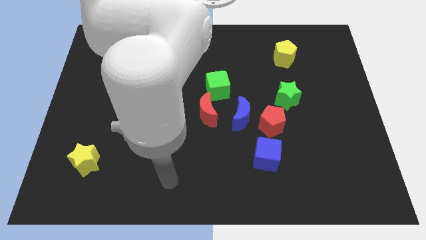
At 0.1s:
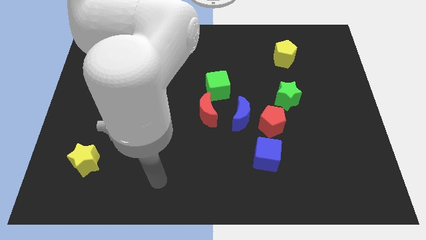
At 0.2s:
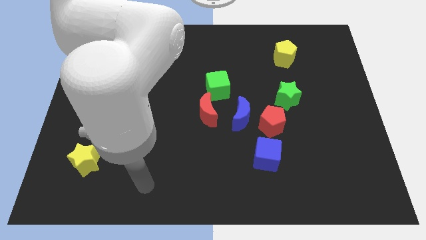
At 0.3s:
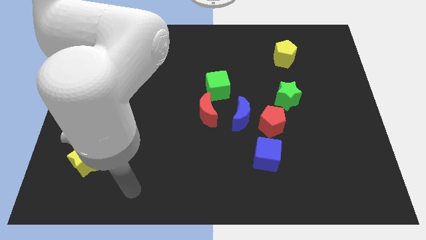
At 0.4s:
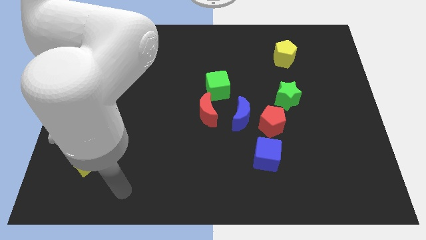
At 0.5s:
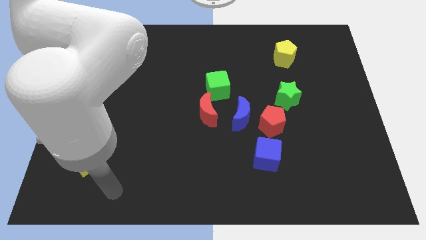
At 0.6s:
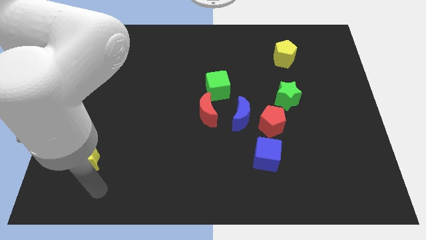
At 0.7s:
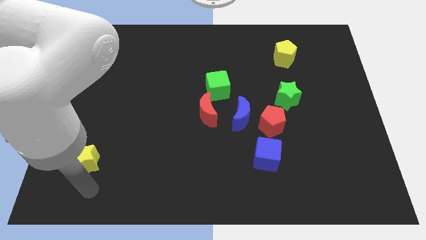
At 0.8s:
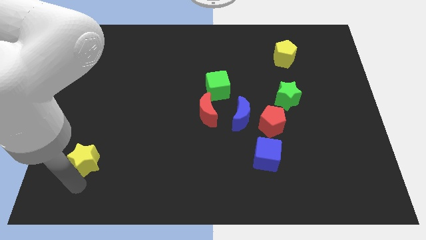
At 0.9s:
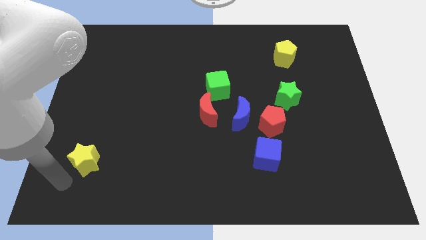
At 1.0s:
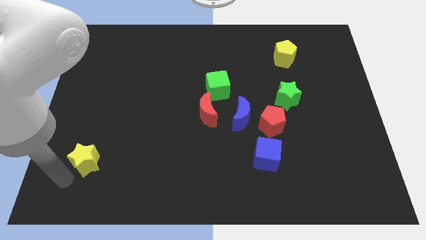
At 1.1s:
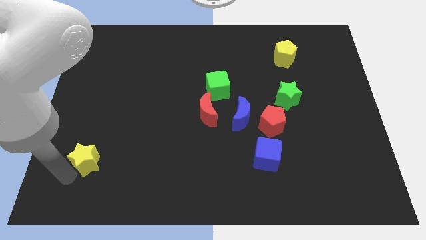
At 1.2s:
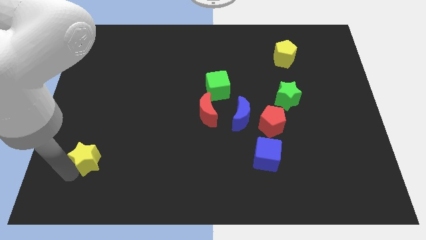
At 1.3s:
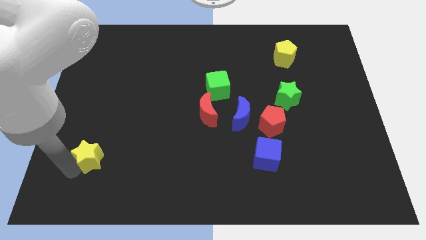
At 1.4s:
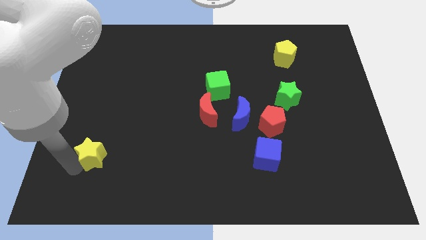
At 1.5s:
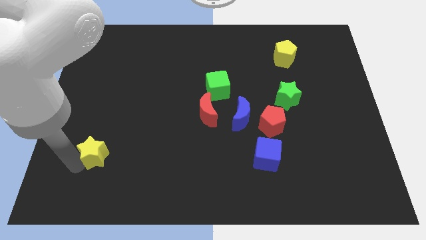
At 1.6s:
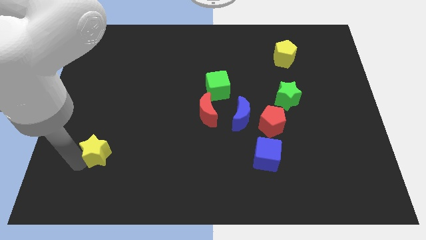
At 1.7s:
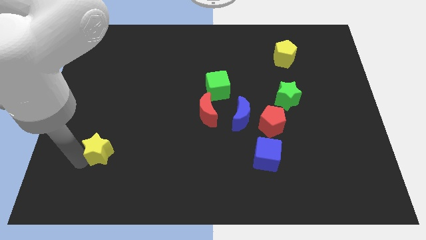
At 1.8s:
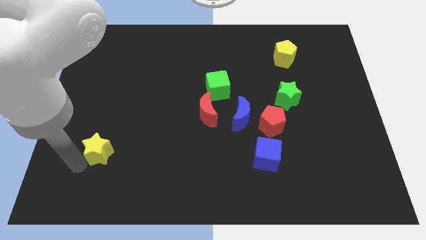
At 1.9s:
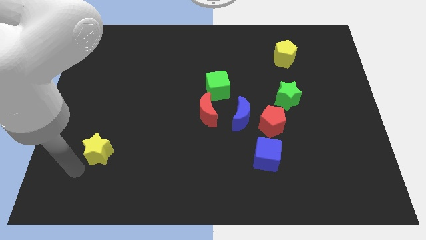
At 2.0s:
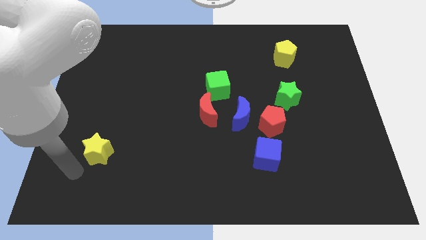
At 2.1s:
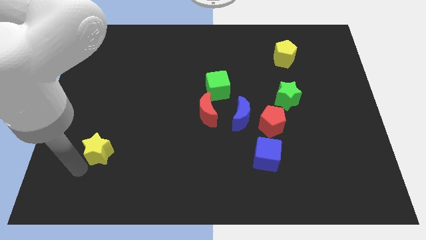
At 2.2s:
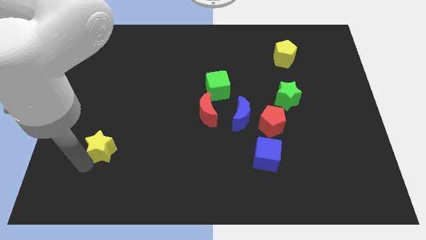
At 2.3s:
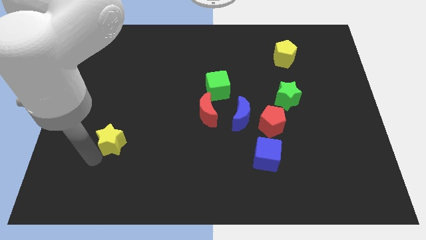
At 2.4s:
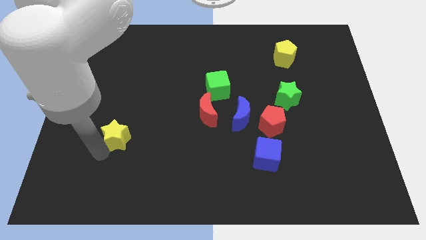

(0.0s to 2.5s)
push the yellow star somewhat diagonally upwards and right

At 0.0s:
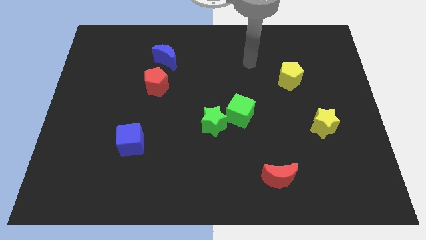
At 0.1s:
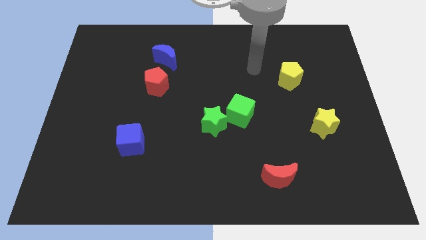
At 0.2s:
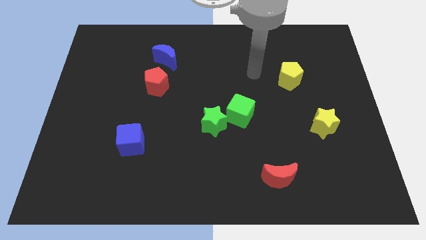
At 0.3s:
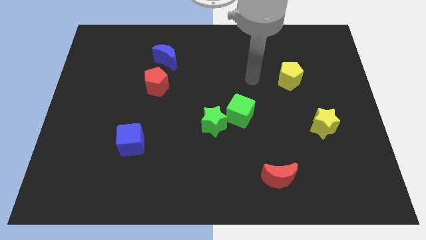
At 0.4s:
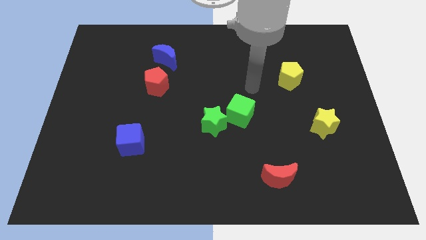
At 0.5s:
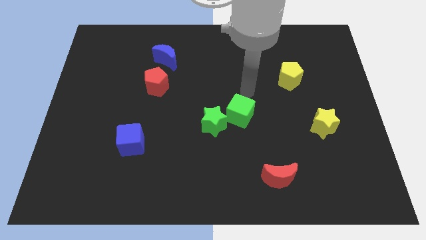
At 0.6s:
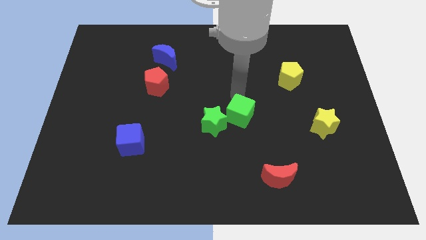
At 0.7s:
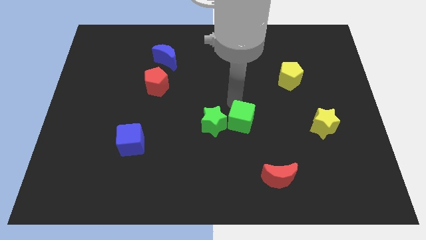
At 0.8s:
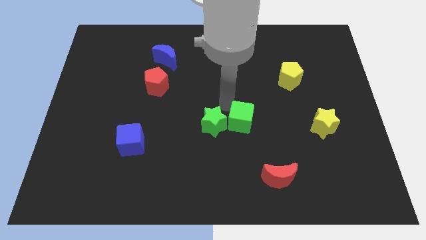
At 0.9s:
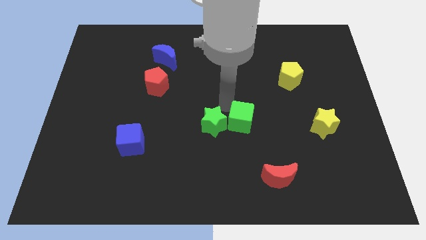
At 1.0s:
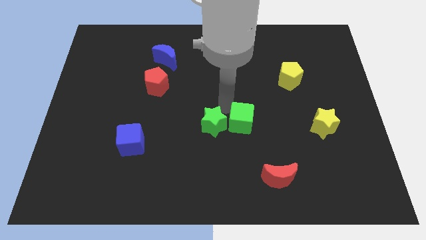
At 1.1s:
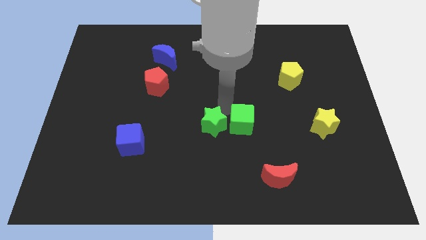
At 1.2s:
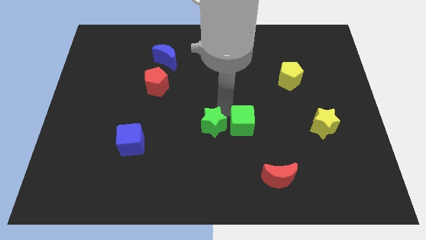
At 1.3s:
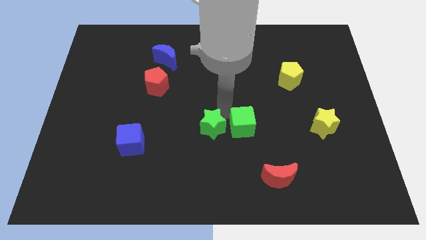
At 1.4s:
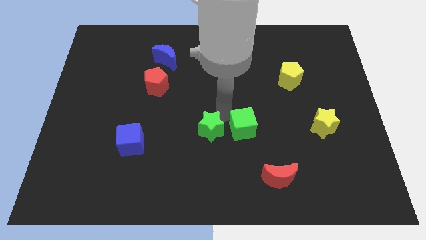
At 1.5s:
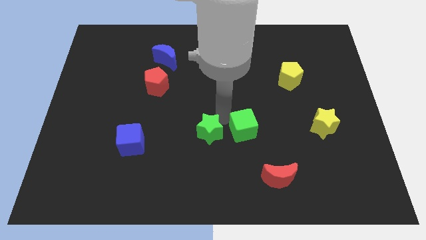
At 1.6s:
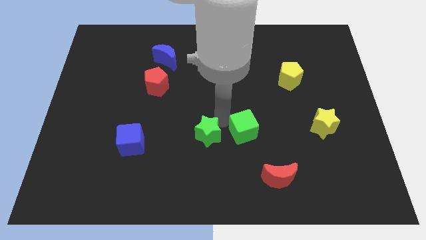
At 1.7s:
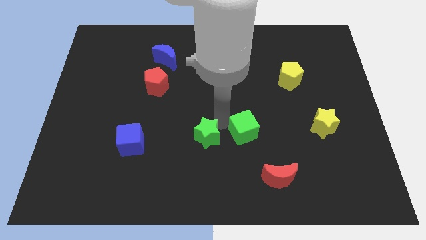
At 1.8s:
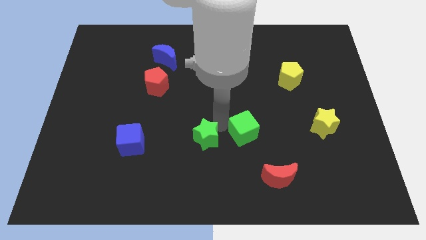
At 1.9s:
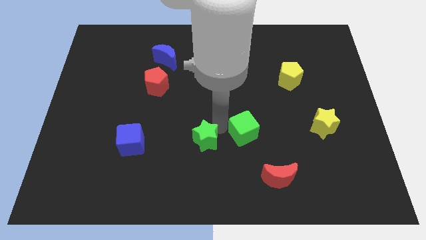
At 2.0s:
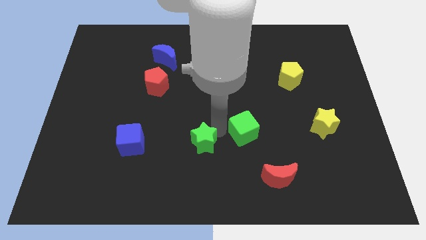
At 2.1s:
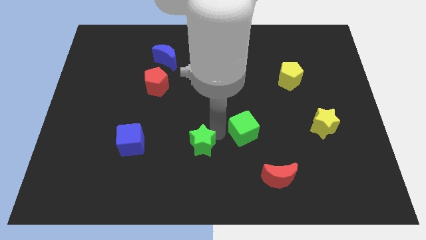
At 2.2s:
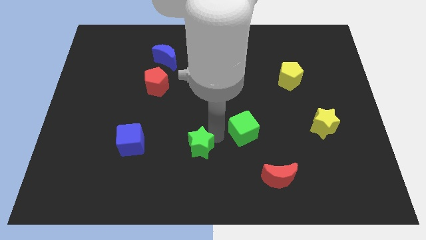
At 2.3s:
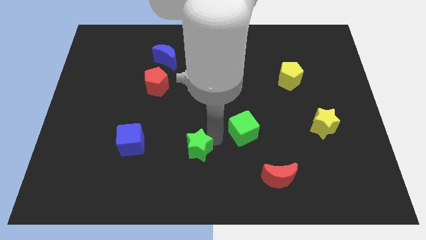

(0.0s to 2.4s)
move the green star downwards and left a little bit

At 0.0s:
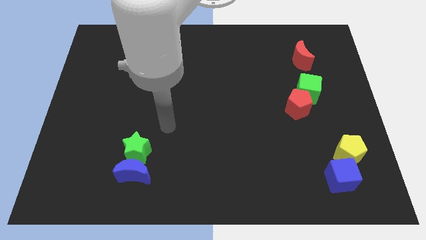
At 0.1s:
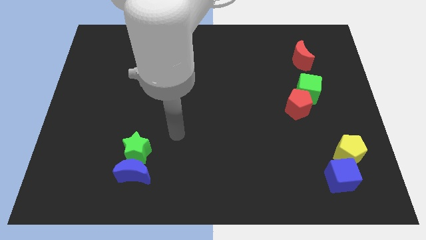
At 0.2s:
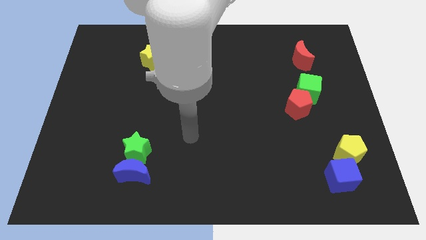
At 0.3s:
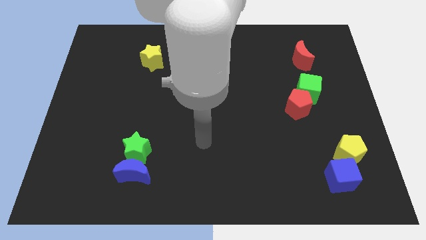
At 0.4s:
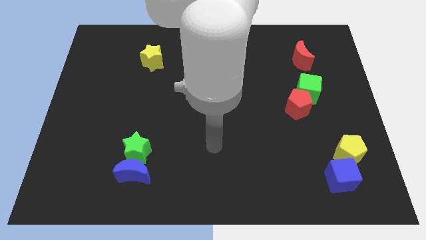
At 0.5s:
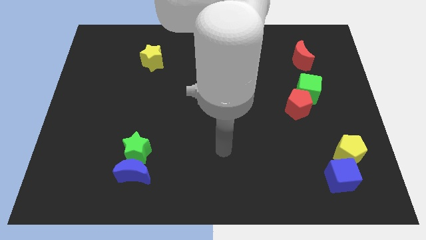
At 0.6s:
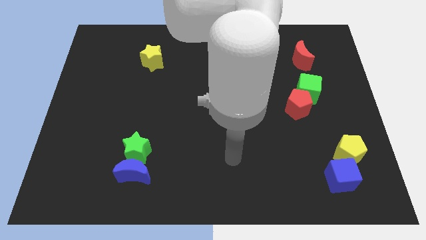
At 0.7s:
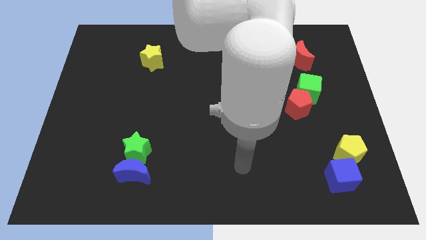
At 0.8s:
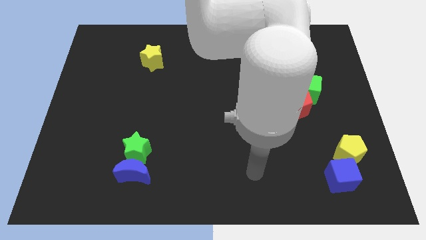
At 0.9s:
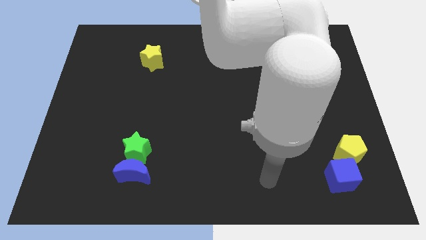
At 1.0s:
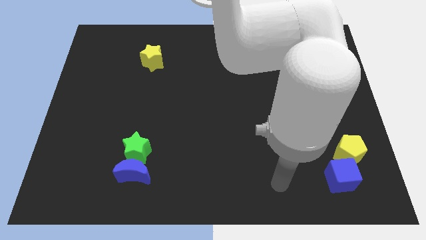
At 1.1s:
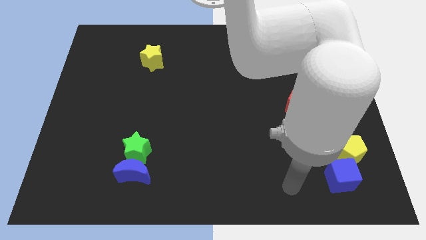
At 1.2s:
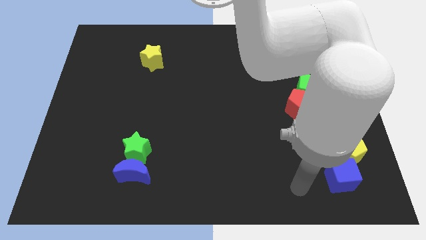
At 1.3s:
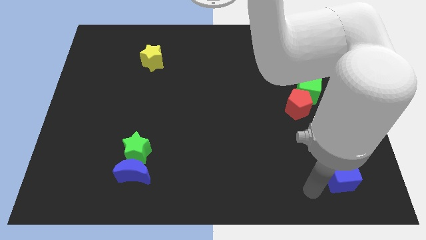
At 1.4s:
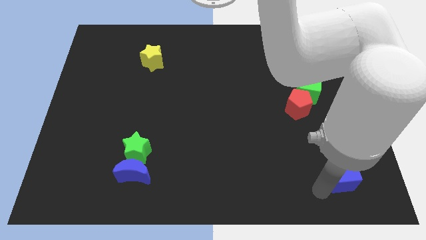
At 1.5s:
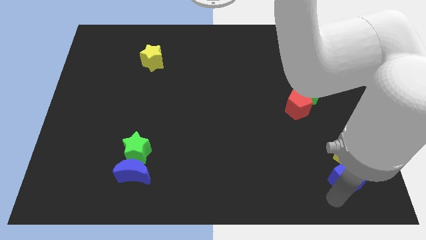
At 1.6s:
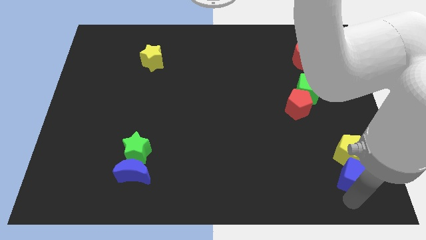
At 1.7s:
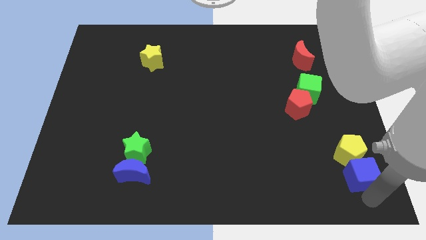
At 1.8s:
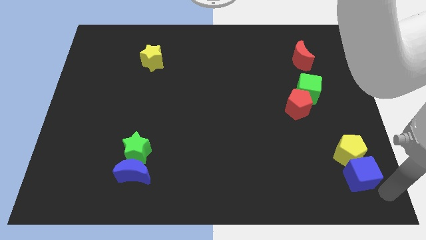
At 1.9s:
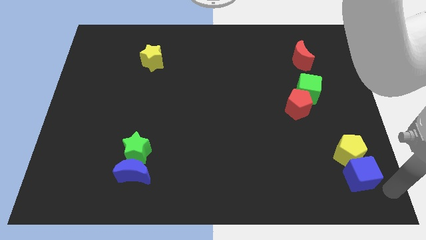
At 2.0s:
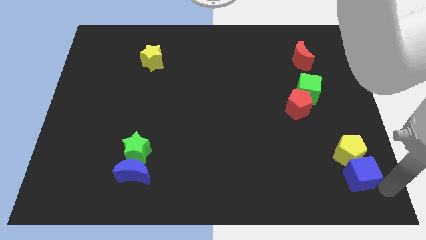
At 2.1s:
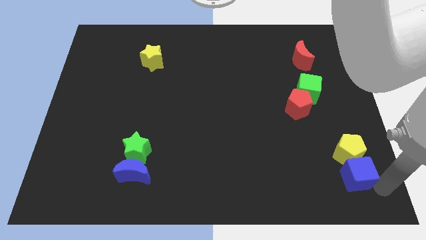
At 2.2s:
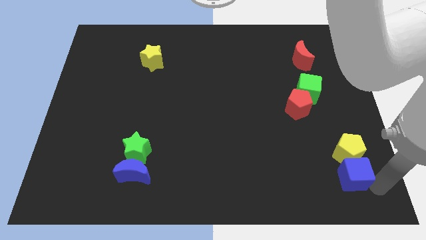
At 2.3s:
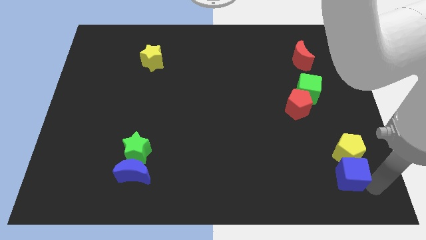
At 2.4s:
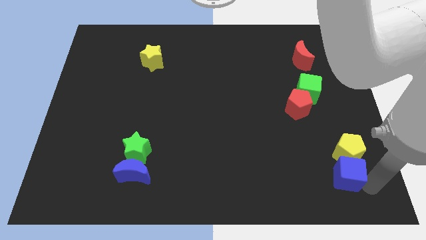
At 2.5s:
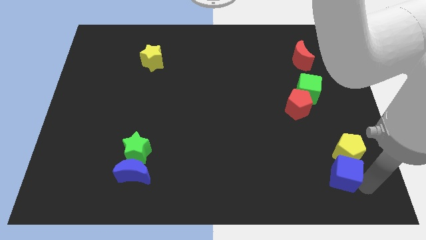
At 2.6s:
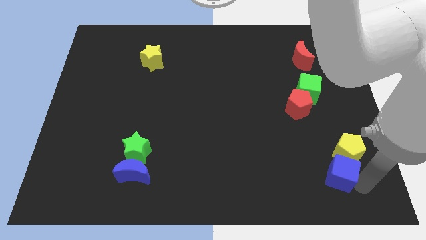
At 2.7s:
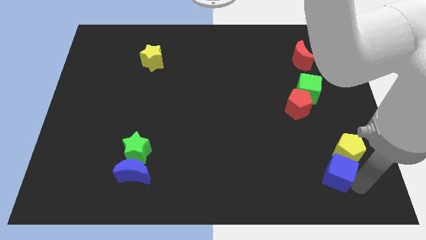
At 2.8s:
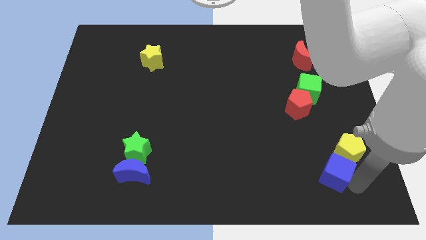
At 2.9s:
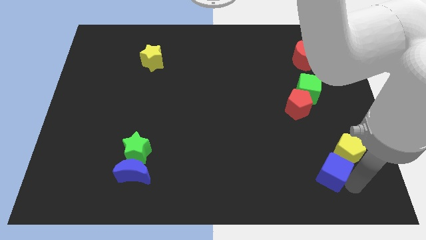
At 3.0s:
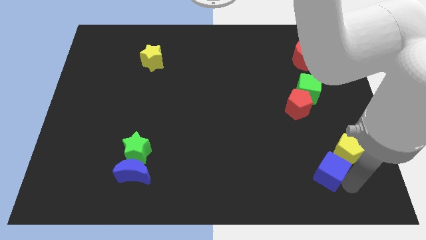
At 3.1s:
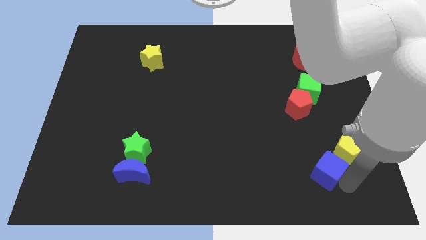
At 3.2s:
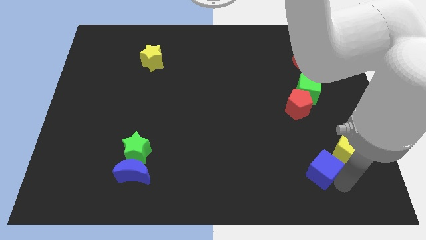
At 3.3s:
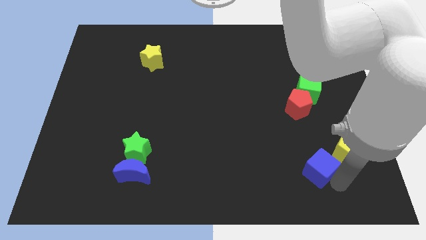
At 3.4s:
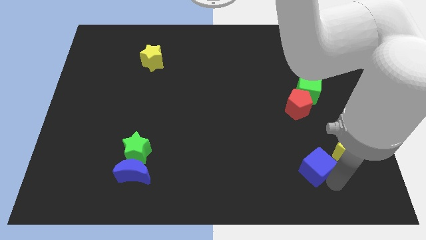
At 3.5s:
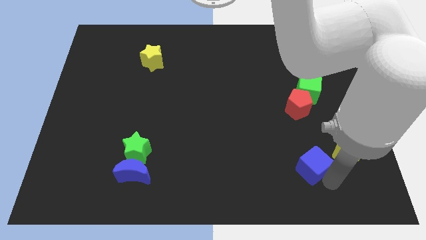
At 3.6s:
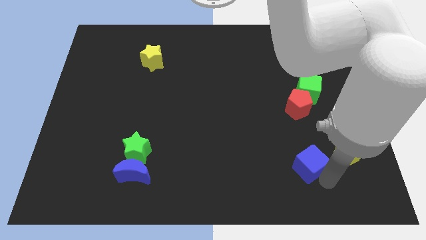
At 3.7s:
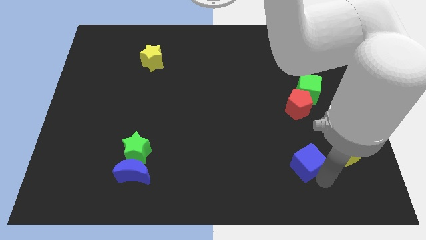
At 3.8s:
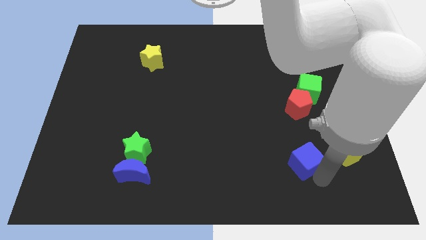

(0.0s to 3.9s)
push the blue cube up and left diagonally a little
